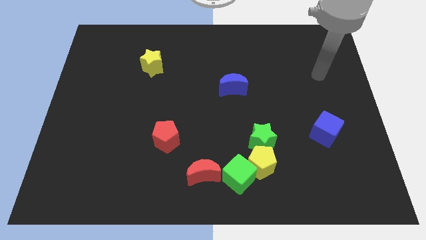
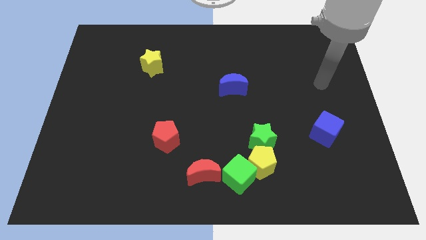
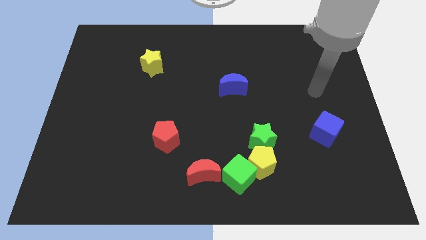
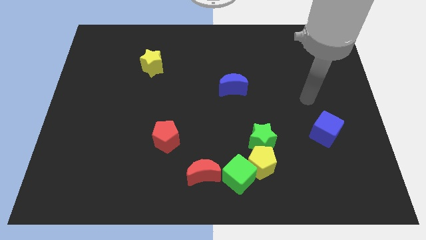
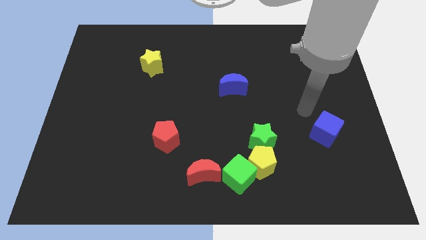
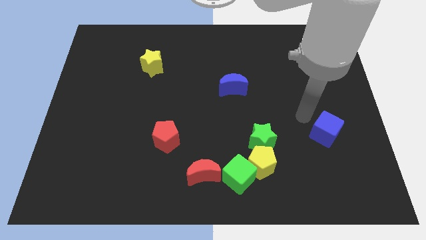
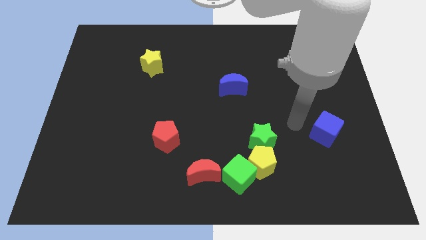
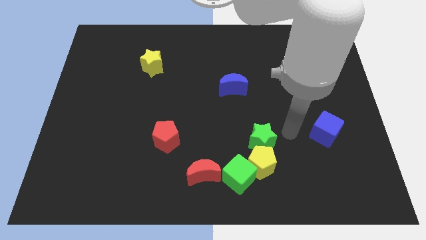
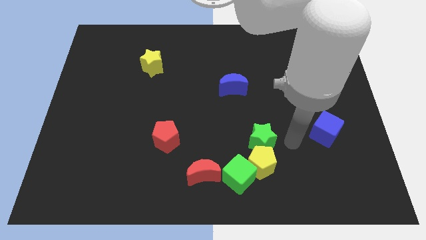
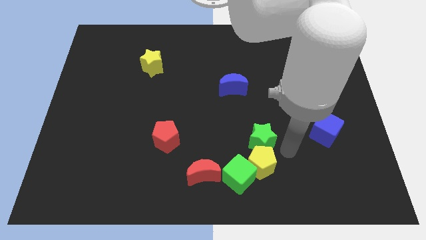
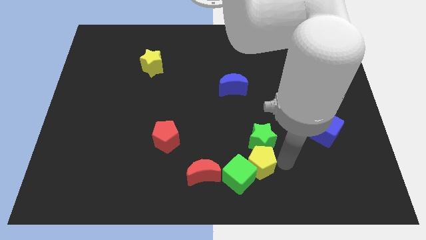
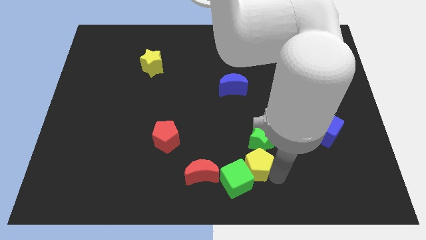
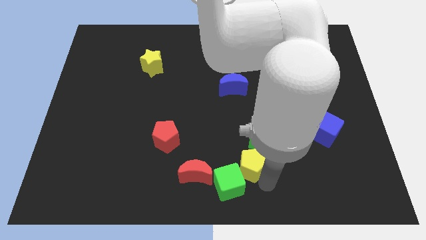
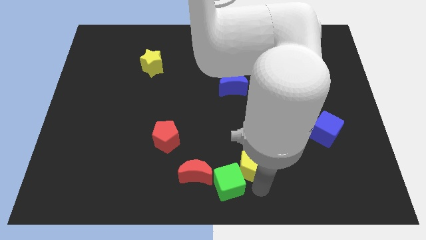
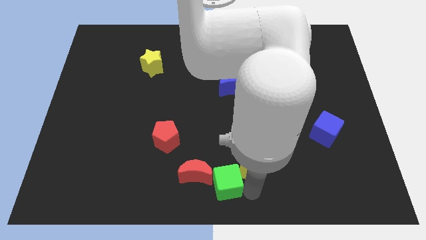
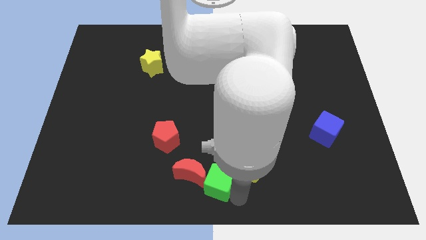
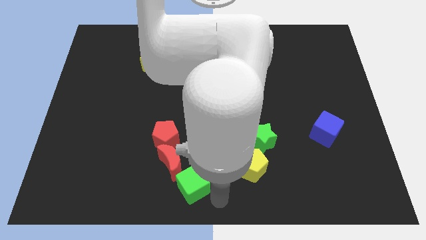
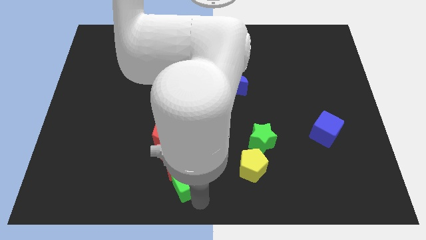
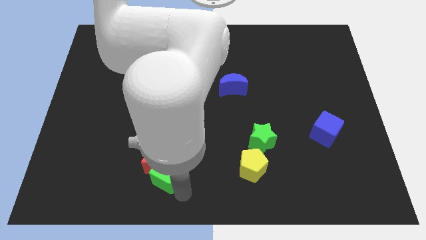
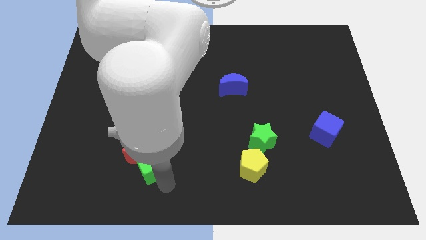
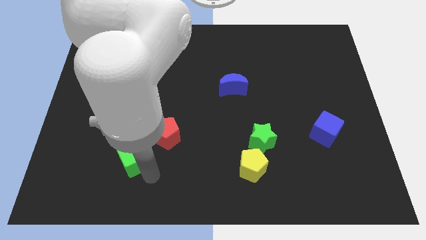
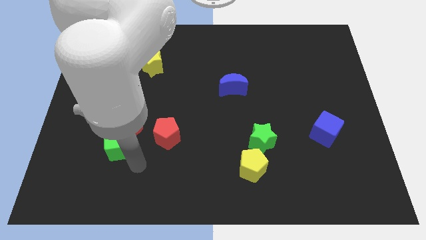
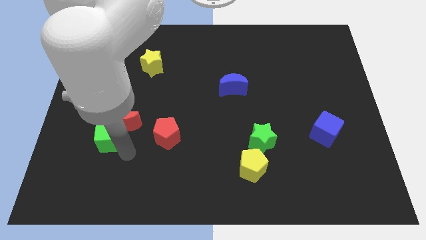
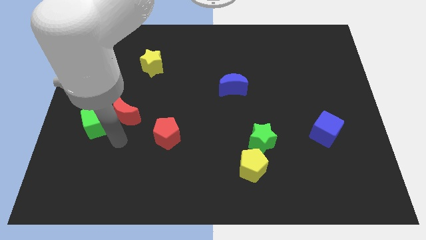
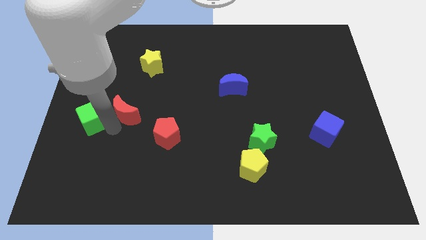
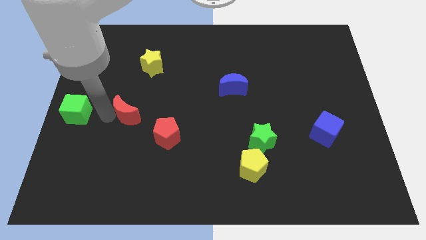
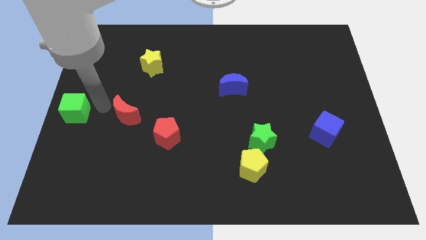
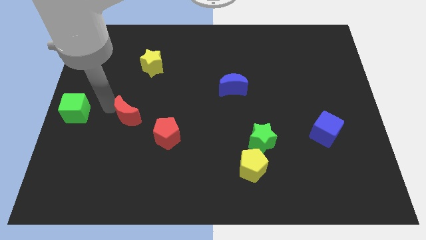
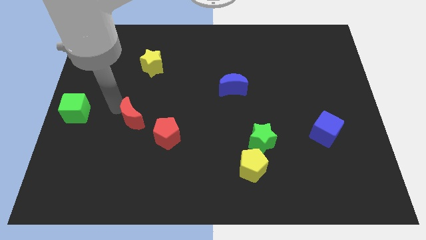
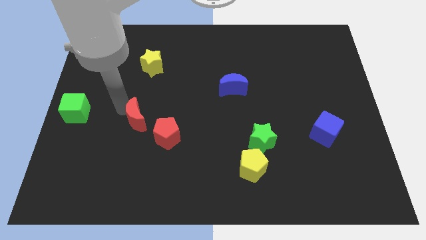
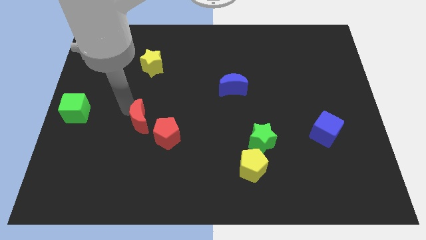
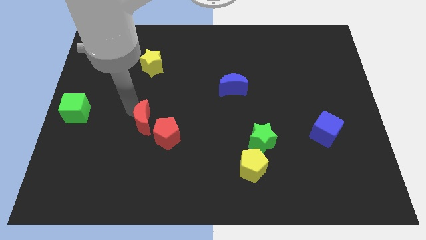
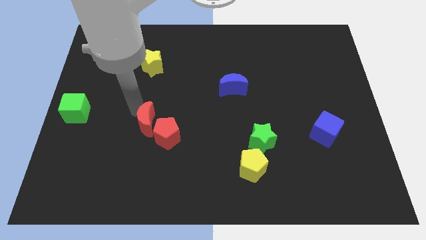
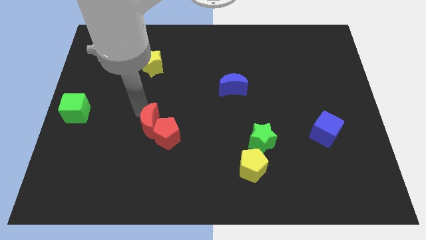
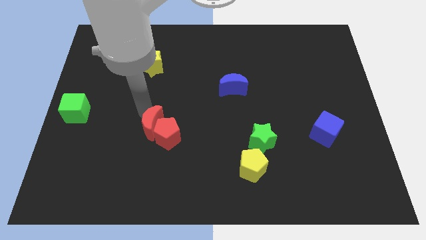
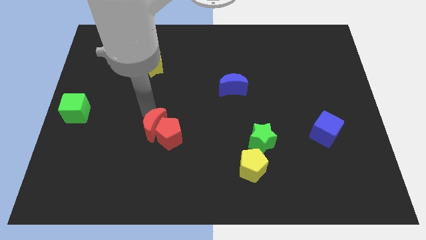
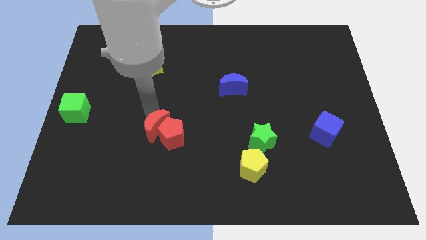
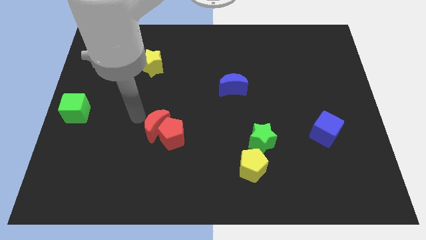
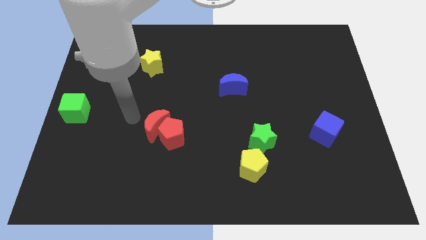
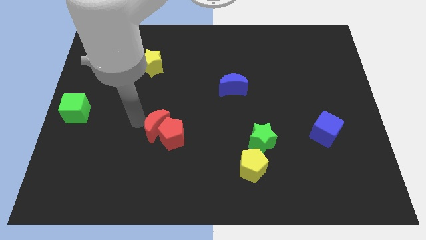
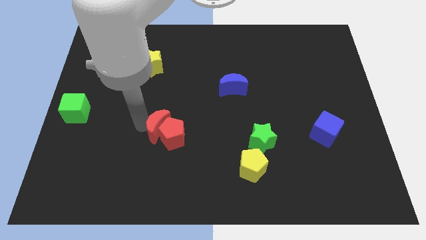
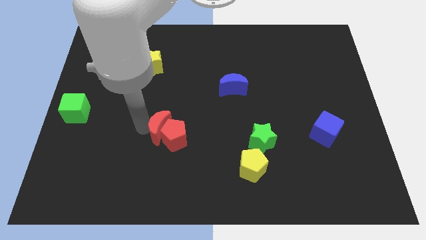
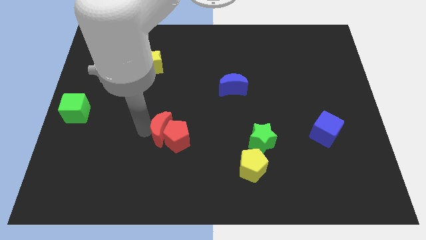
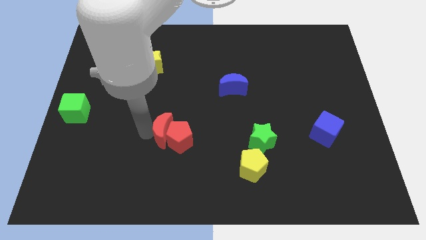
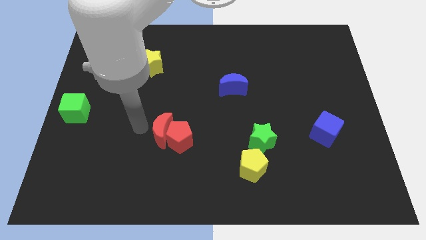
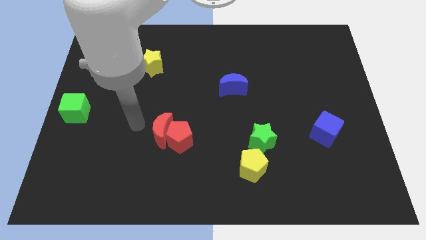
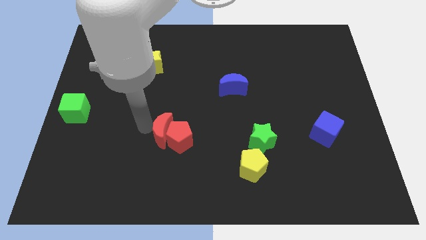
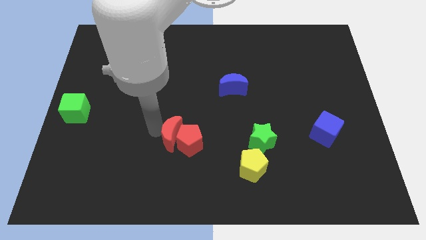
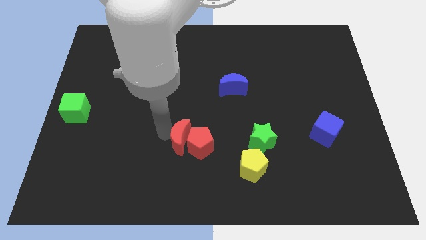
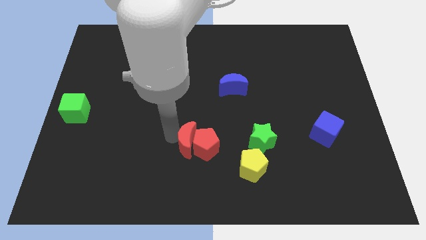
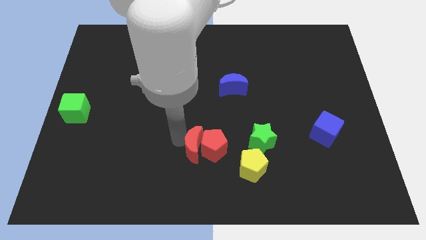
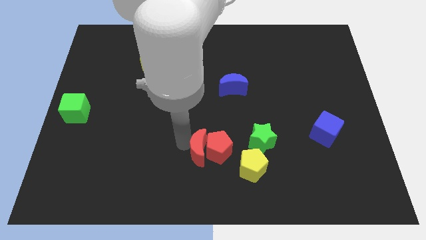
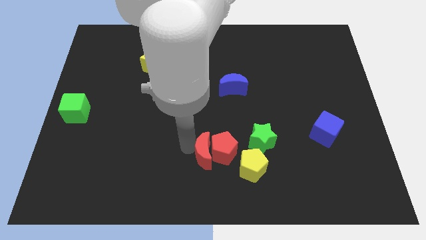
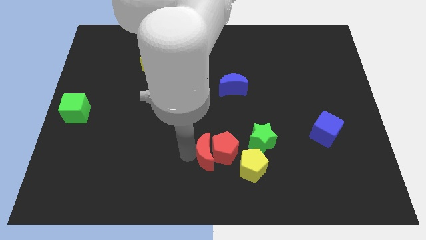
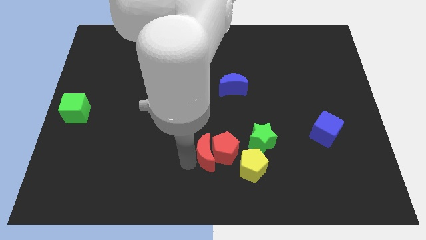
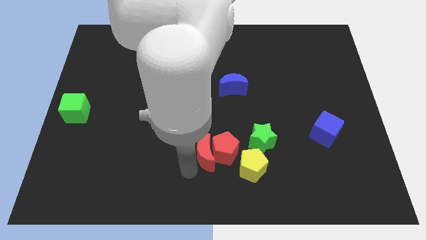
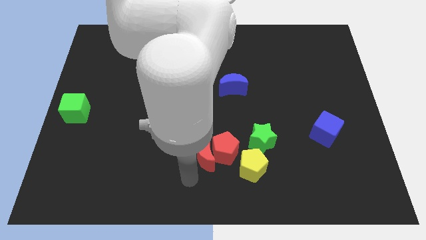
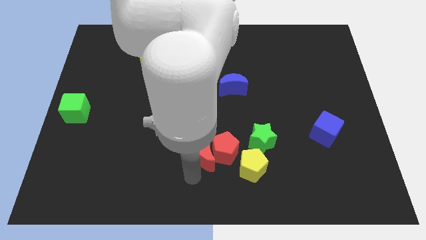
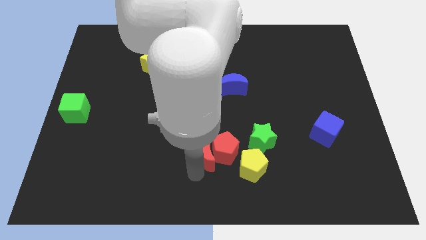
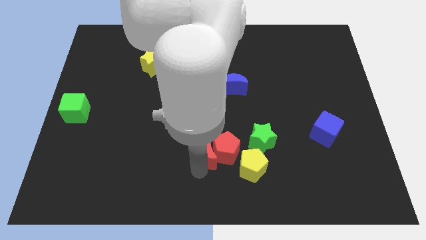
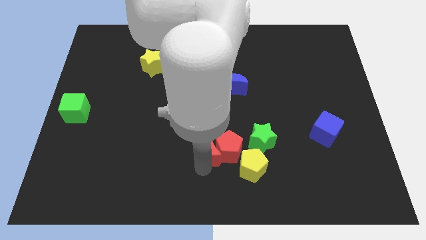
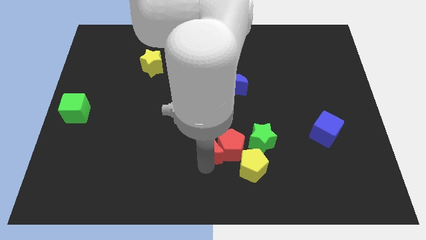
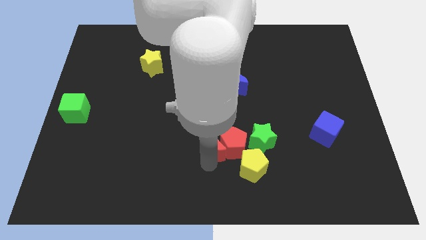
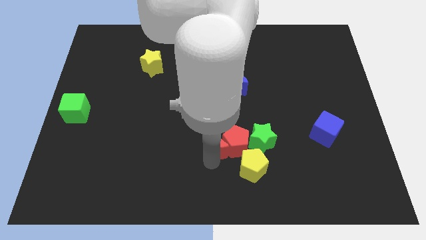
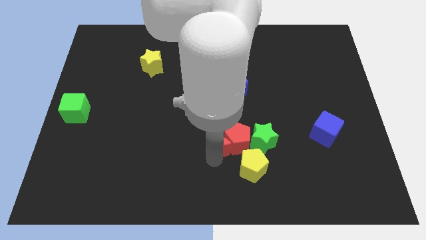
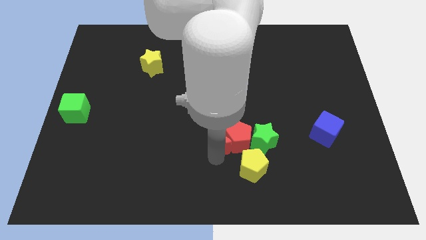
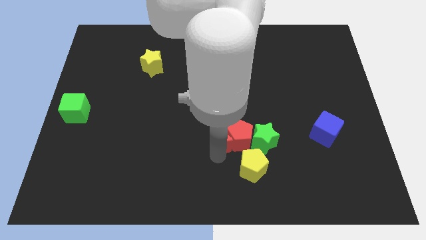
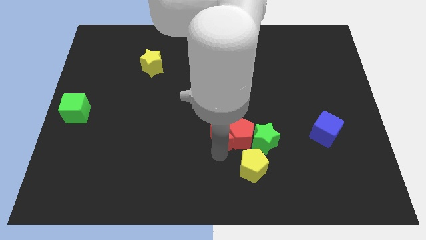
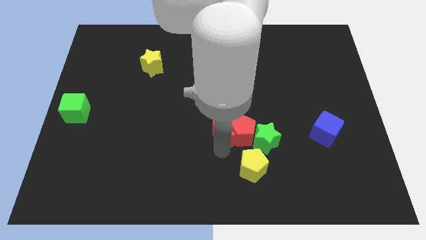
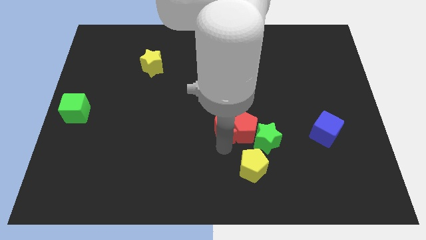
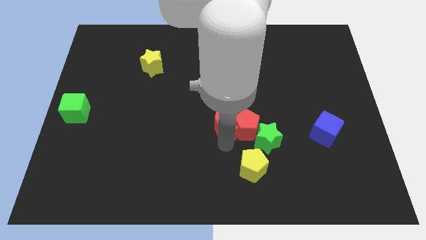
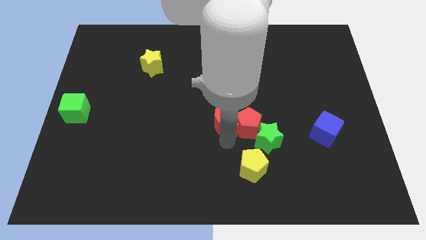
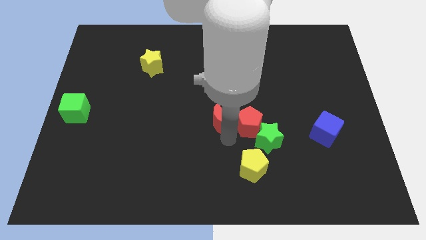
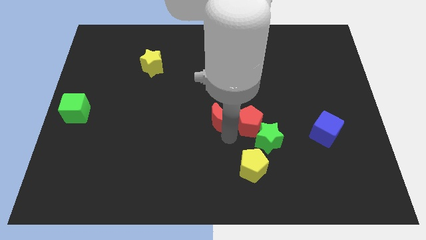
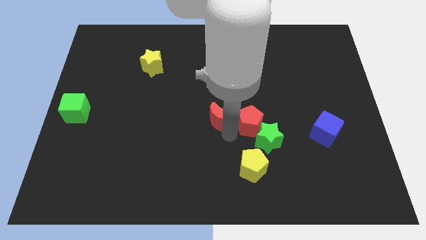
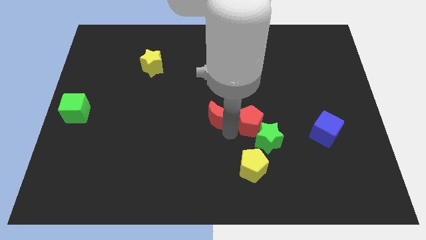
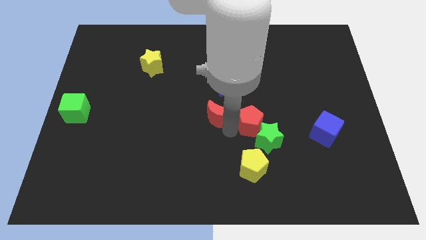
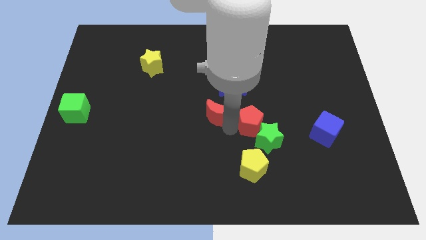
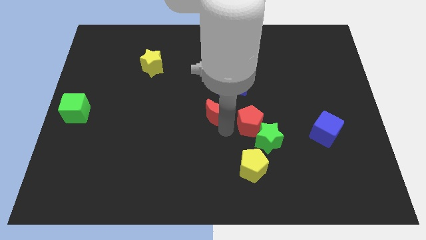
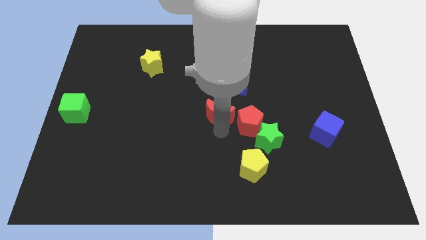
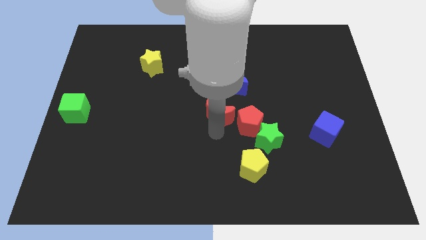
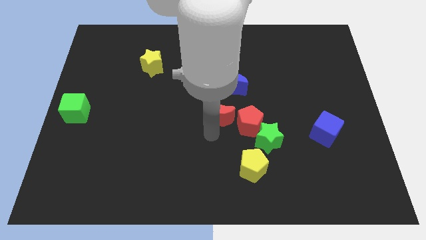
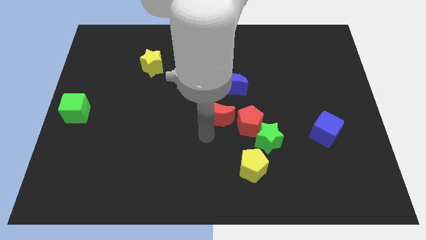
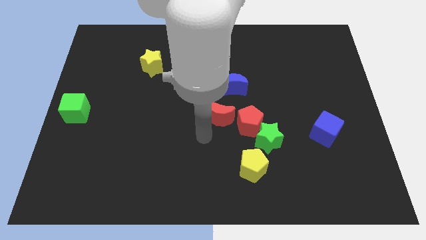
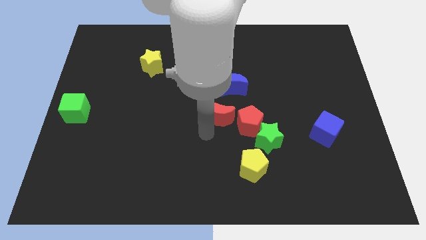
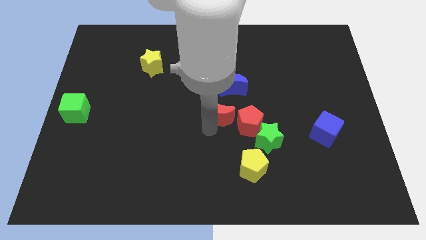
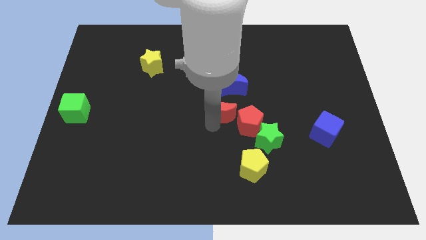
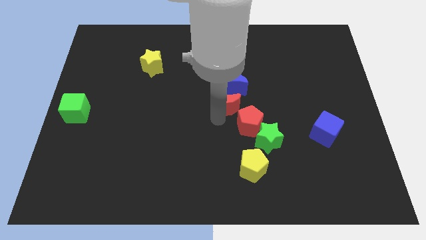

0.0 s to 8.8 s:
put the red moon close to the blue moon
